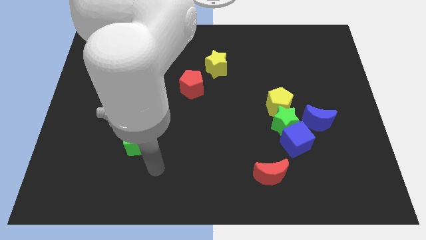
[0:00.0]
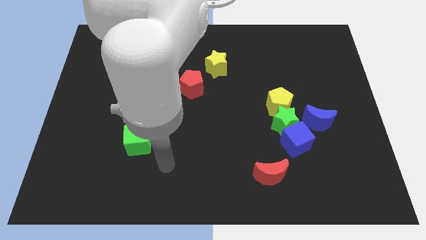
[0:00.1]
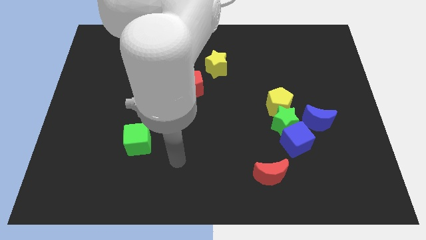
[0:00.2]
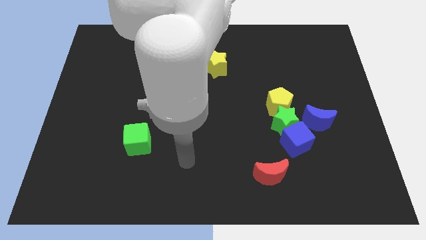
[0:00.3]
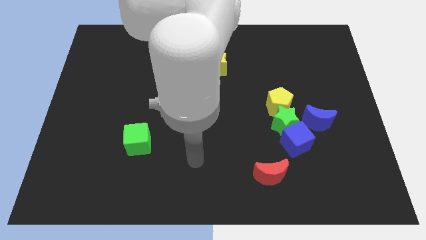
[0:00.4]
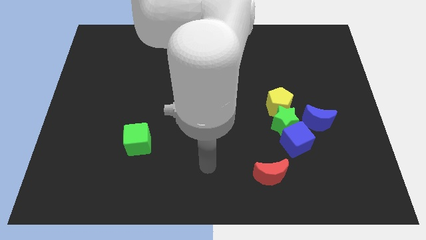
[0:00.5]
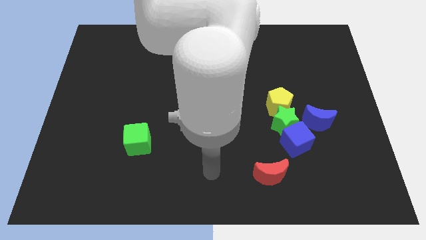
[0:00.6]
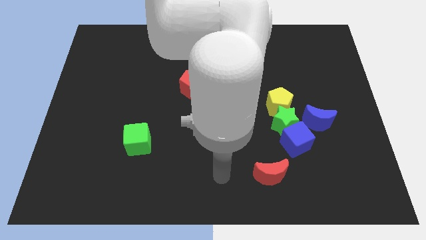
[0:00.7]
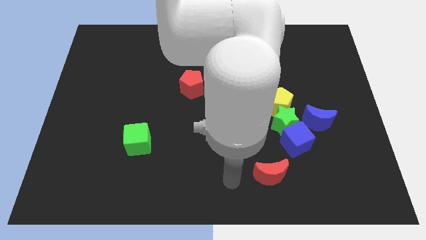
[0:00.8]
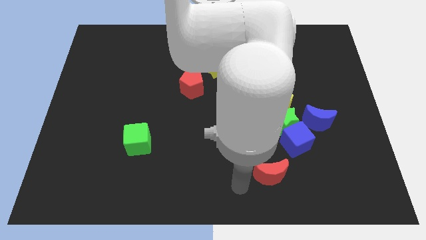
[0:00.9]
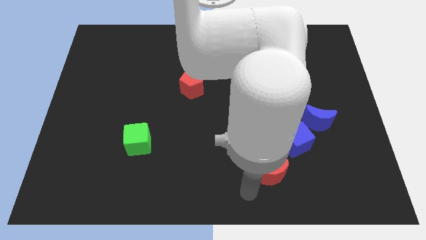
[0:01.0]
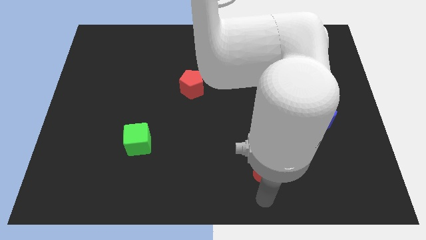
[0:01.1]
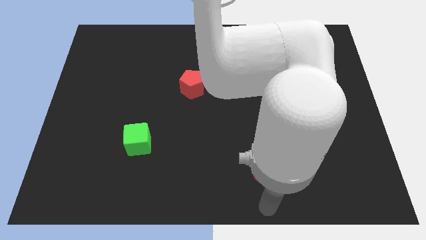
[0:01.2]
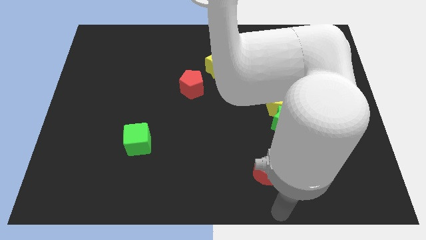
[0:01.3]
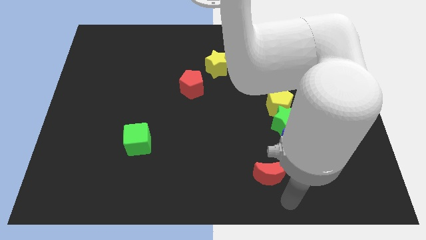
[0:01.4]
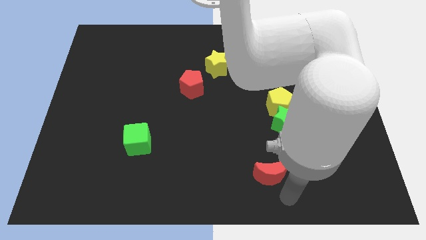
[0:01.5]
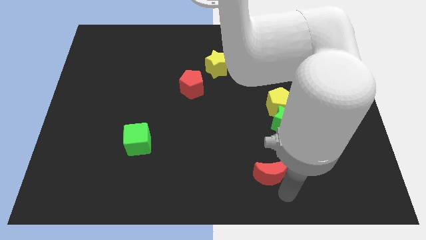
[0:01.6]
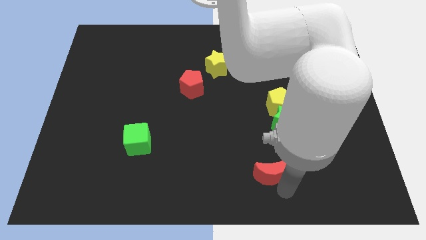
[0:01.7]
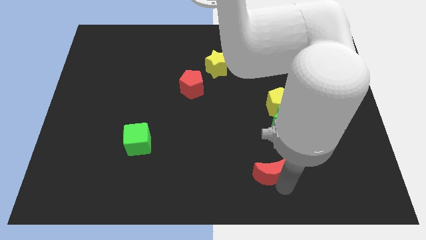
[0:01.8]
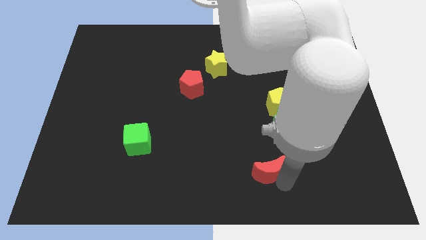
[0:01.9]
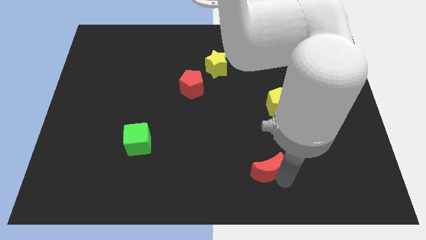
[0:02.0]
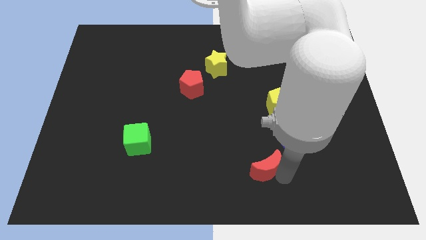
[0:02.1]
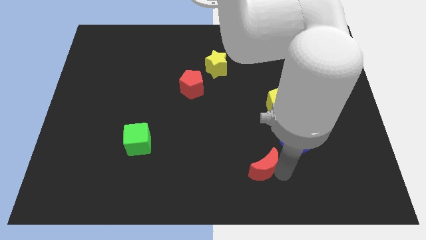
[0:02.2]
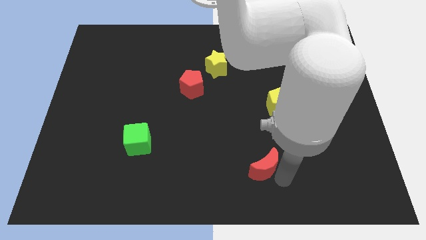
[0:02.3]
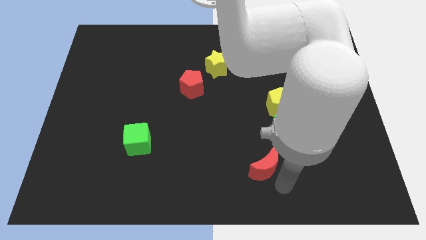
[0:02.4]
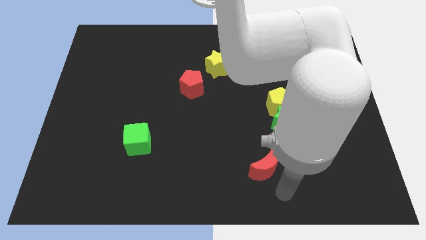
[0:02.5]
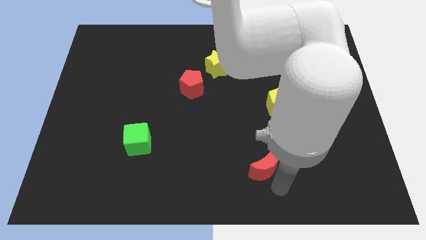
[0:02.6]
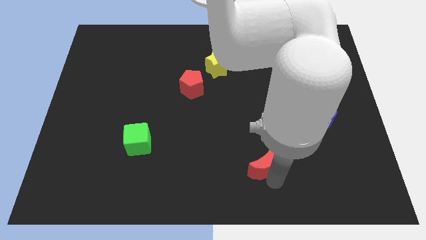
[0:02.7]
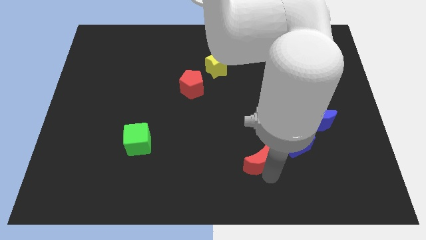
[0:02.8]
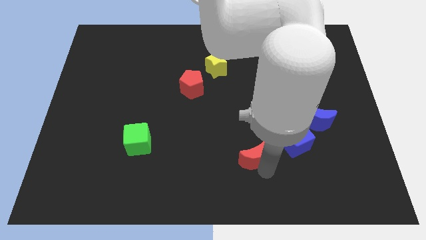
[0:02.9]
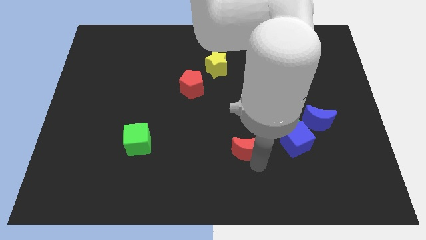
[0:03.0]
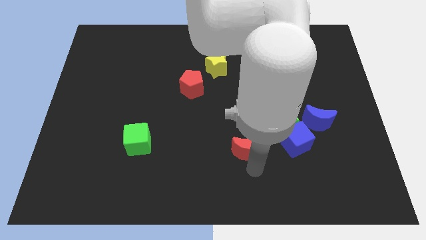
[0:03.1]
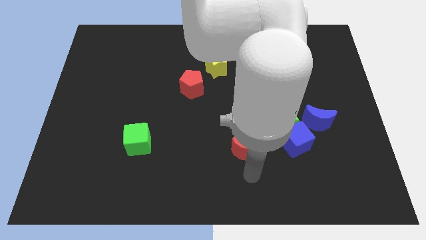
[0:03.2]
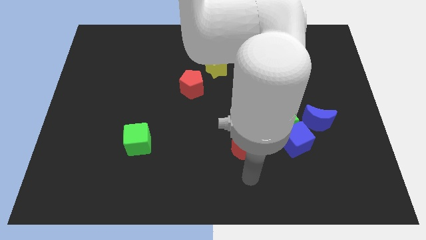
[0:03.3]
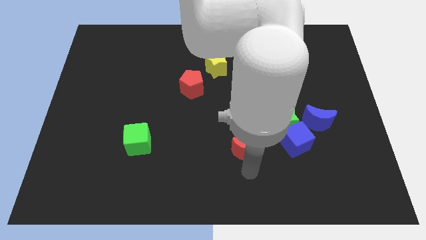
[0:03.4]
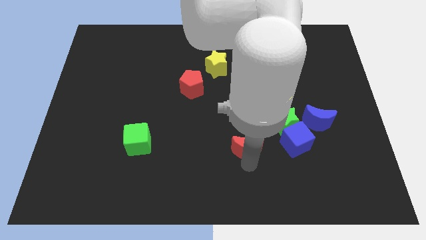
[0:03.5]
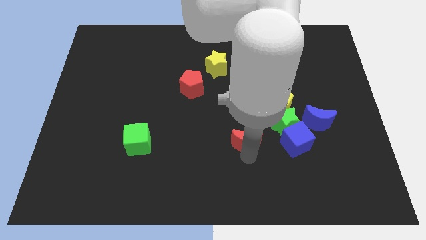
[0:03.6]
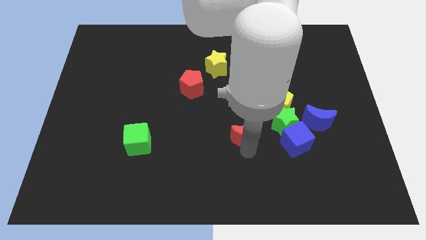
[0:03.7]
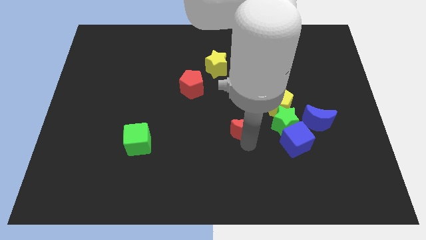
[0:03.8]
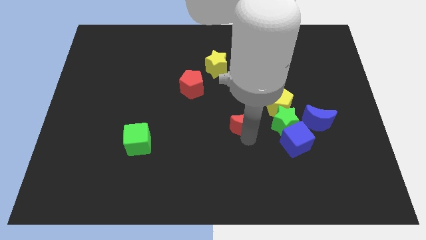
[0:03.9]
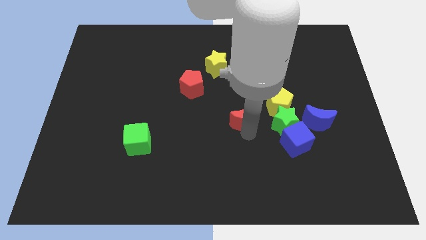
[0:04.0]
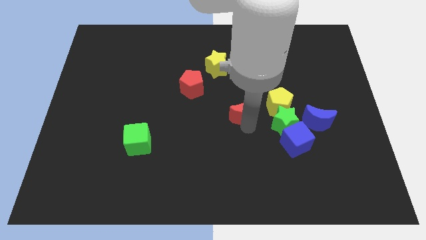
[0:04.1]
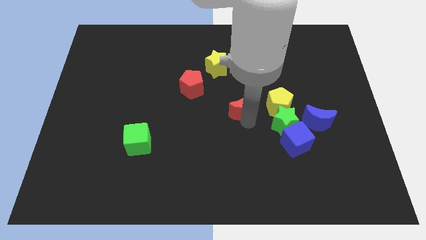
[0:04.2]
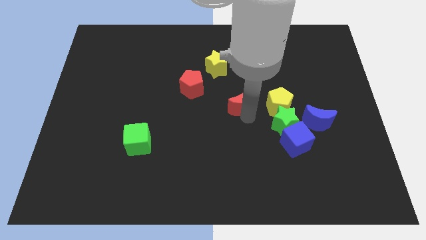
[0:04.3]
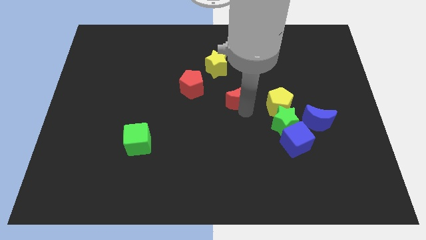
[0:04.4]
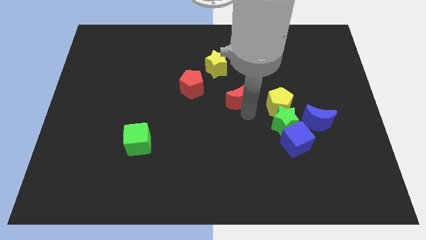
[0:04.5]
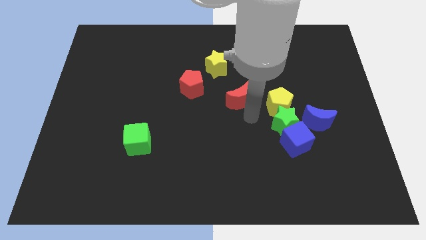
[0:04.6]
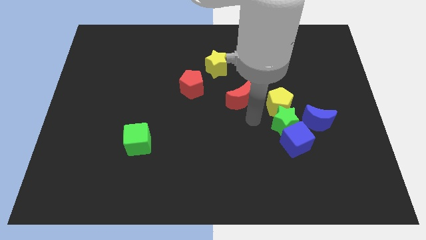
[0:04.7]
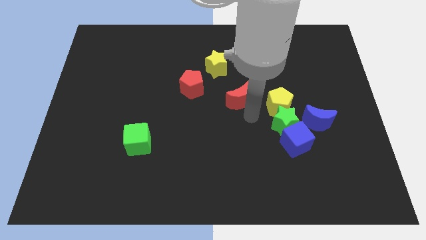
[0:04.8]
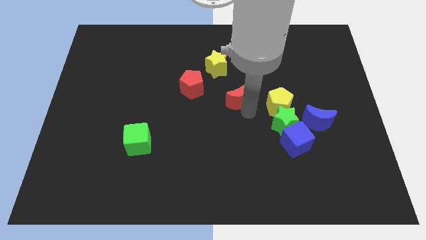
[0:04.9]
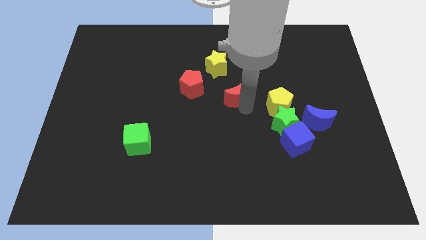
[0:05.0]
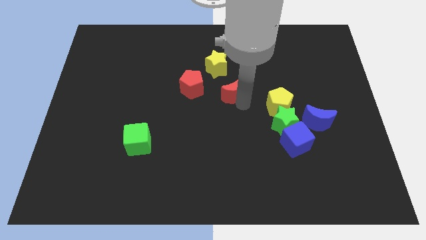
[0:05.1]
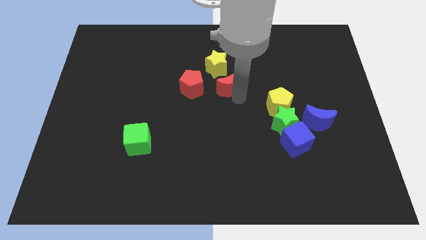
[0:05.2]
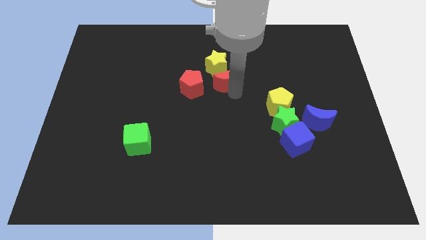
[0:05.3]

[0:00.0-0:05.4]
push the red moon close to the yellow star

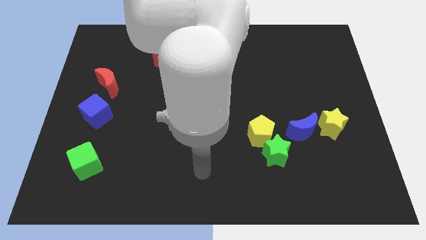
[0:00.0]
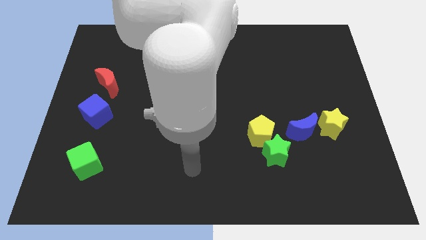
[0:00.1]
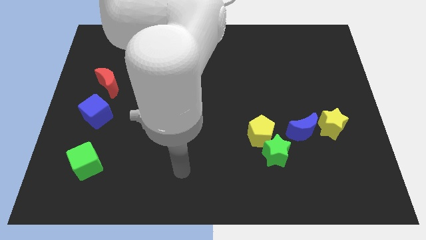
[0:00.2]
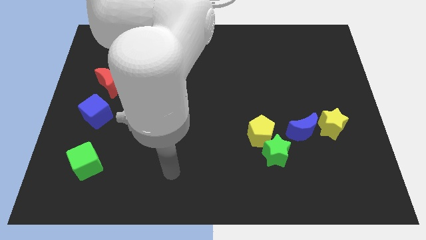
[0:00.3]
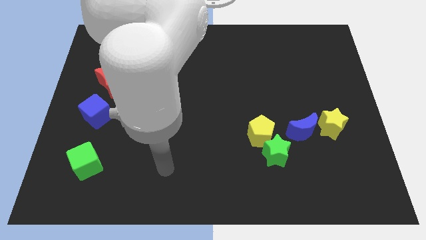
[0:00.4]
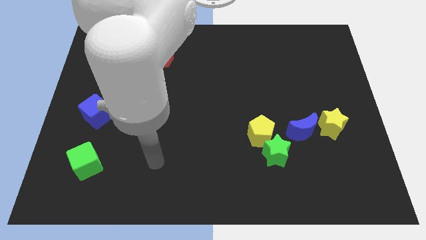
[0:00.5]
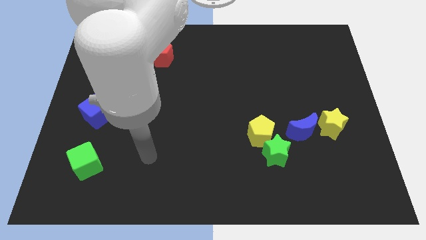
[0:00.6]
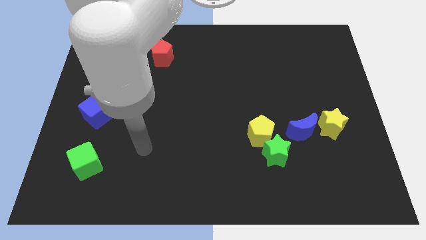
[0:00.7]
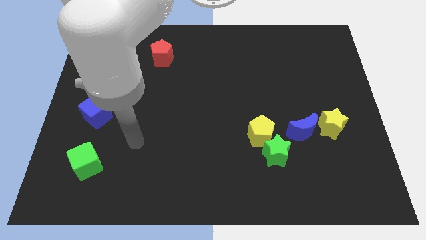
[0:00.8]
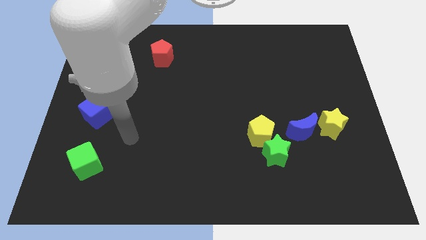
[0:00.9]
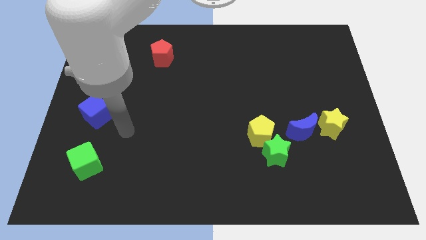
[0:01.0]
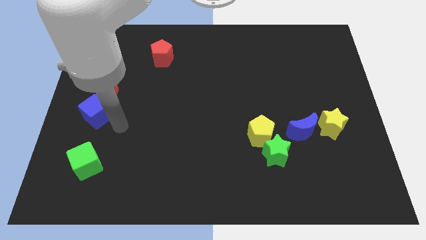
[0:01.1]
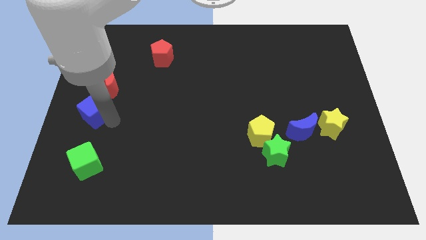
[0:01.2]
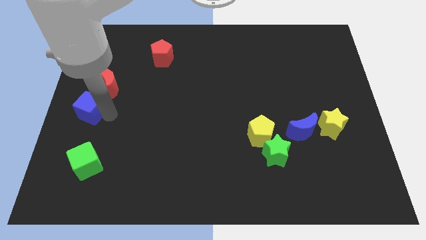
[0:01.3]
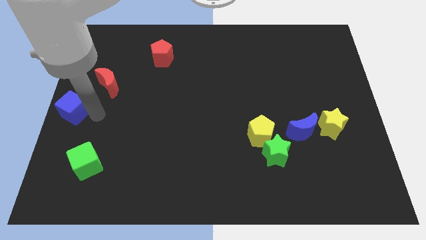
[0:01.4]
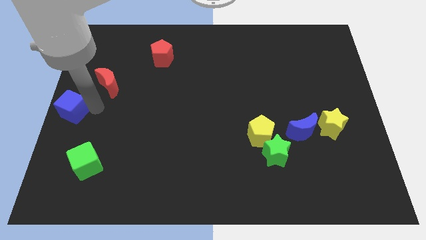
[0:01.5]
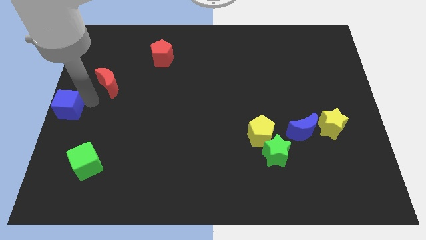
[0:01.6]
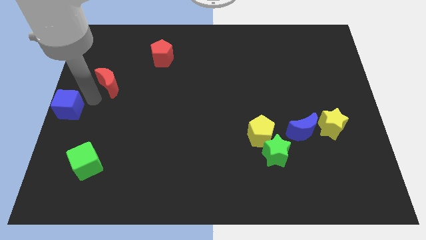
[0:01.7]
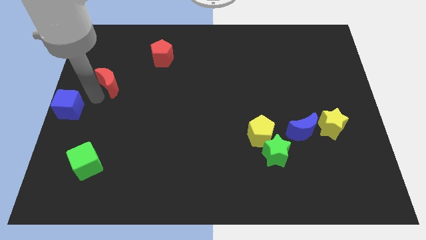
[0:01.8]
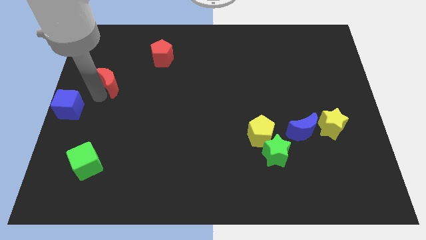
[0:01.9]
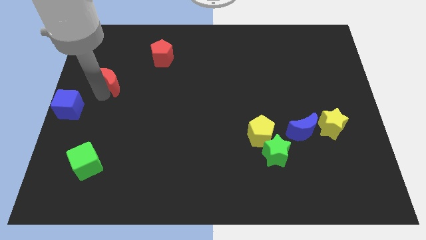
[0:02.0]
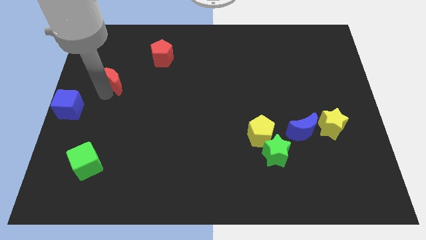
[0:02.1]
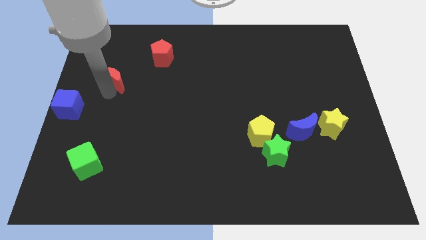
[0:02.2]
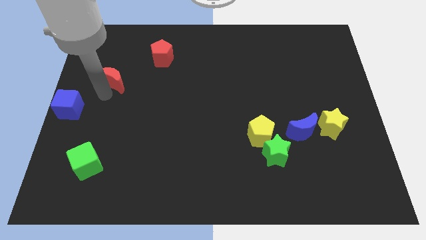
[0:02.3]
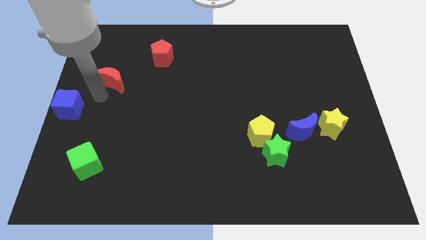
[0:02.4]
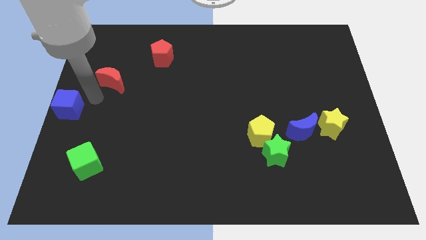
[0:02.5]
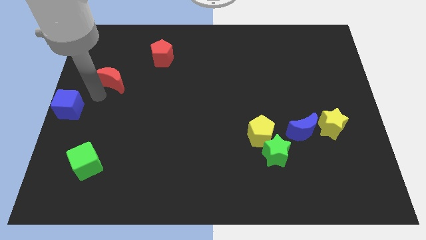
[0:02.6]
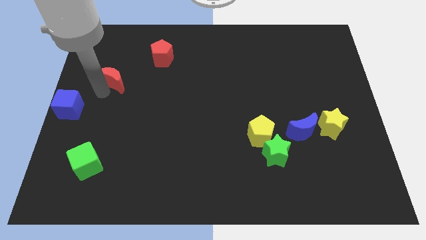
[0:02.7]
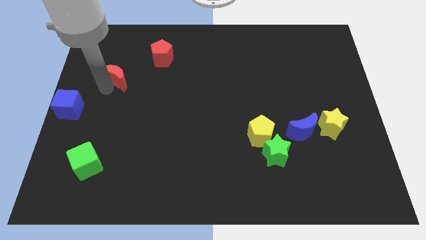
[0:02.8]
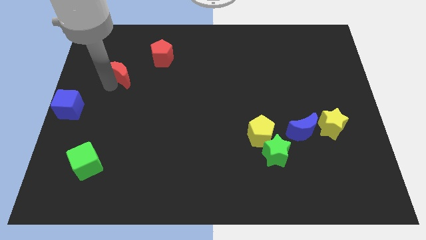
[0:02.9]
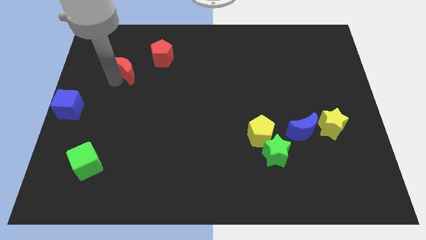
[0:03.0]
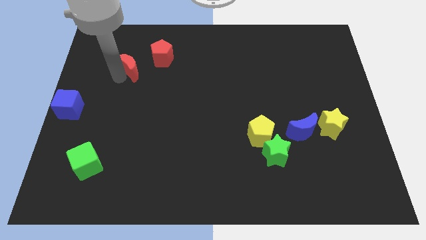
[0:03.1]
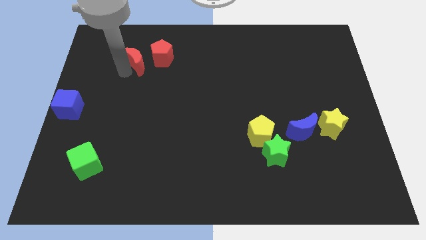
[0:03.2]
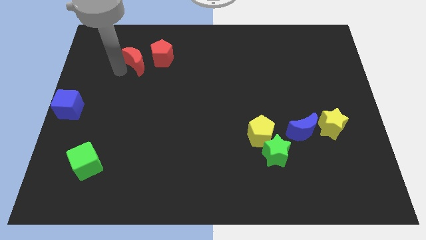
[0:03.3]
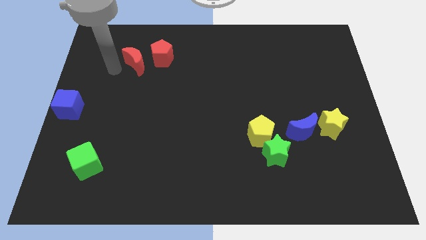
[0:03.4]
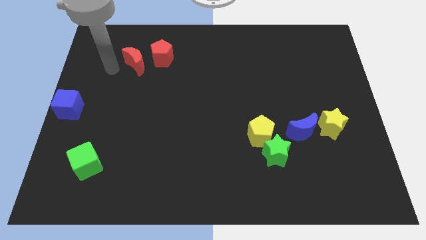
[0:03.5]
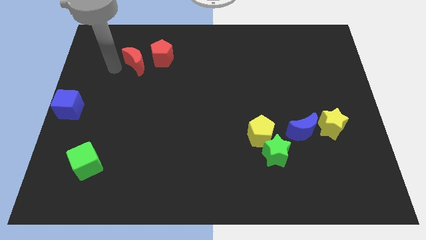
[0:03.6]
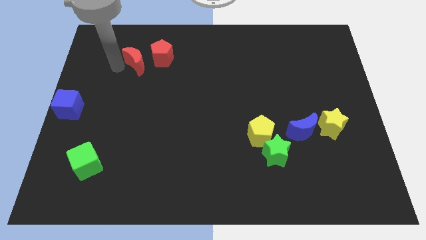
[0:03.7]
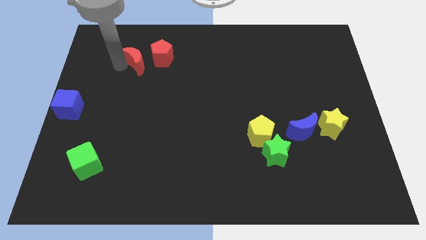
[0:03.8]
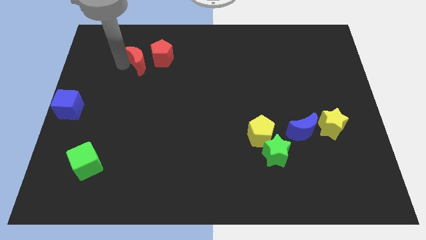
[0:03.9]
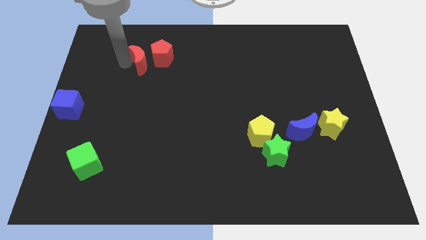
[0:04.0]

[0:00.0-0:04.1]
push the red moon towards the red pentagon
